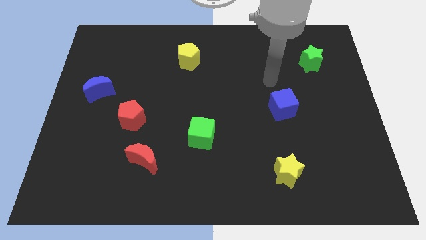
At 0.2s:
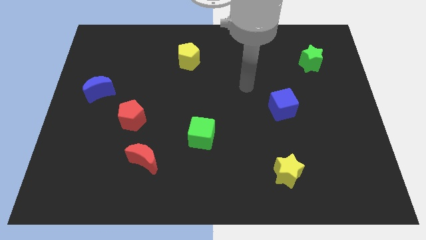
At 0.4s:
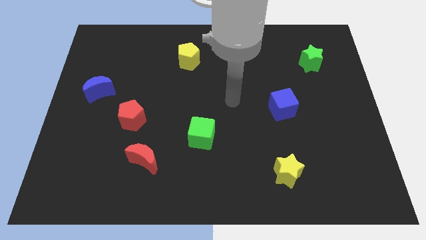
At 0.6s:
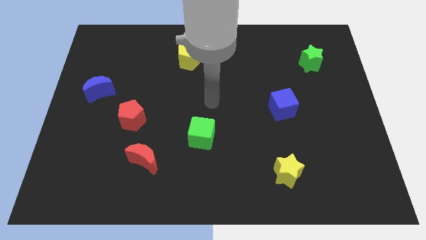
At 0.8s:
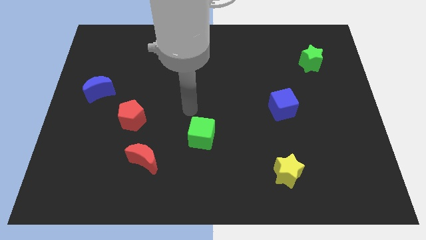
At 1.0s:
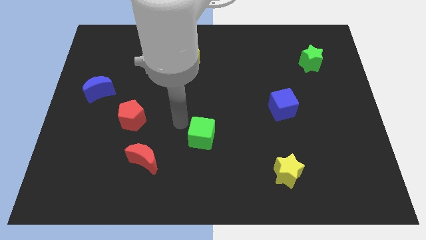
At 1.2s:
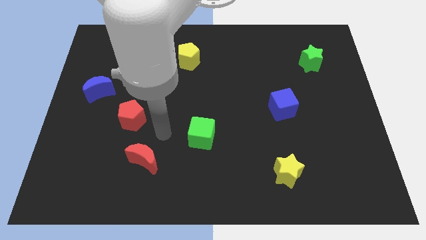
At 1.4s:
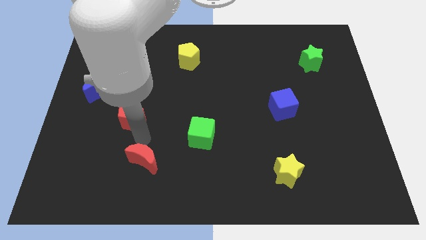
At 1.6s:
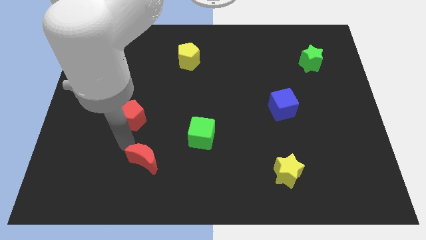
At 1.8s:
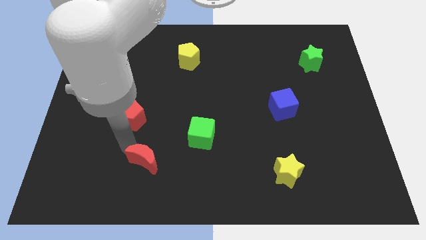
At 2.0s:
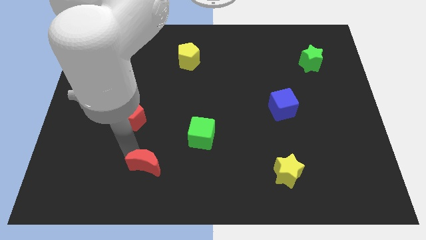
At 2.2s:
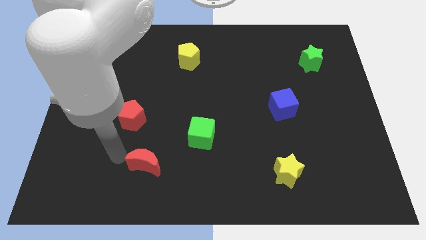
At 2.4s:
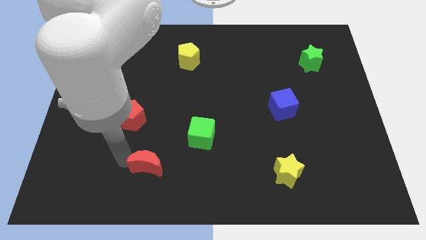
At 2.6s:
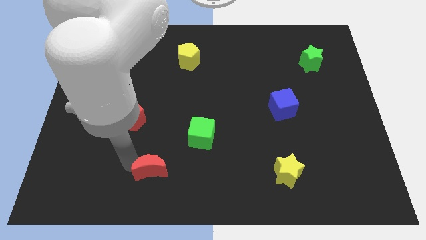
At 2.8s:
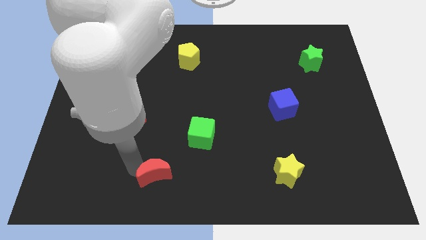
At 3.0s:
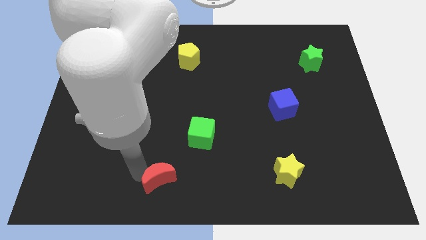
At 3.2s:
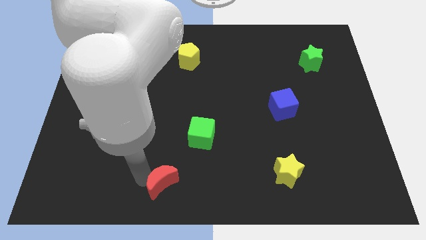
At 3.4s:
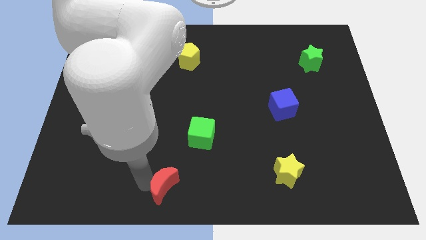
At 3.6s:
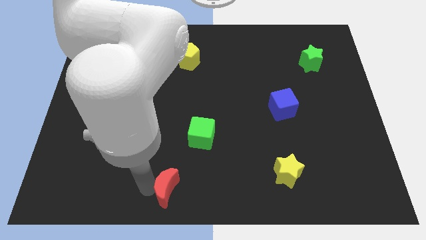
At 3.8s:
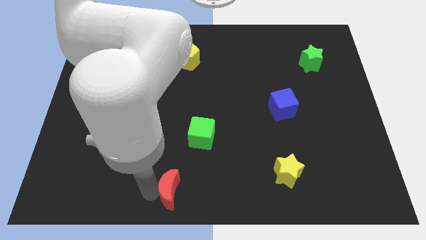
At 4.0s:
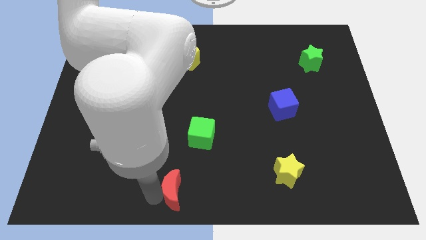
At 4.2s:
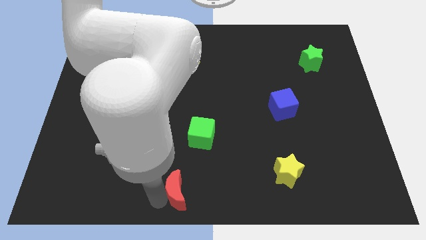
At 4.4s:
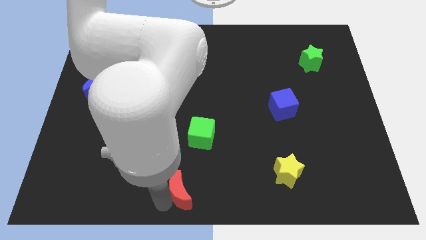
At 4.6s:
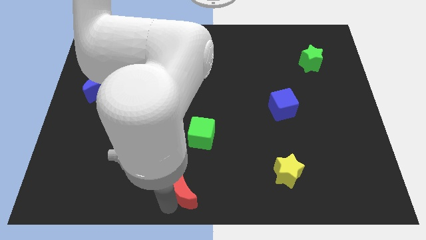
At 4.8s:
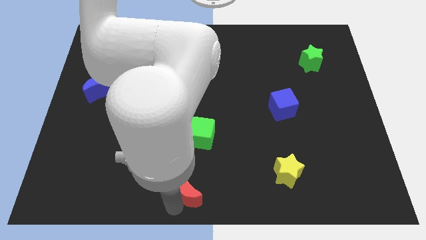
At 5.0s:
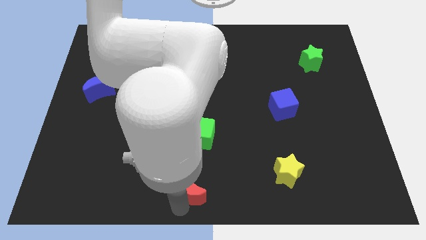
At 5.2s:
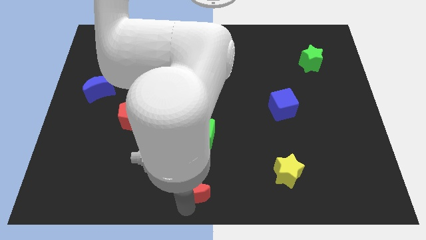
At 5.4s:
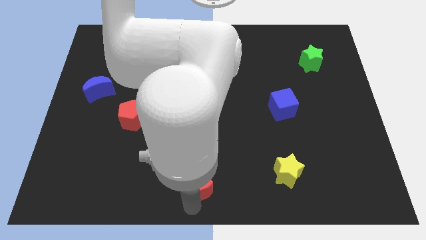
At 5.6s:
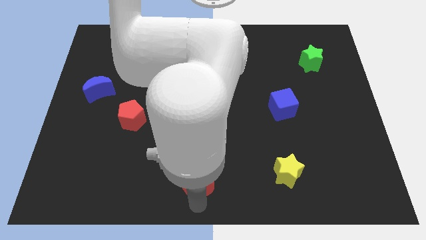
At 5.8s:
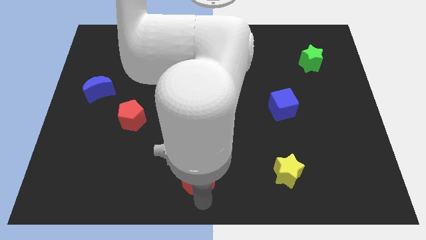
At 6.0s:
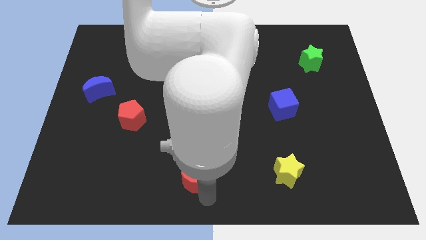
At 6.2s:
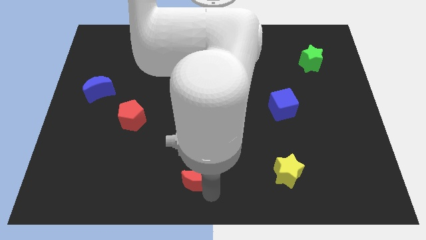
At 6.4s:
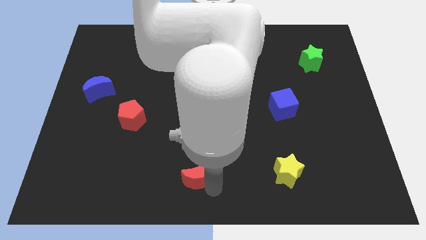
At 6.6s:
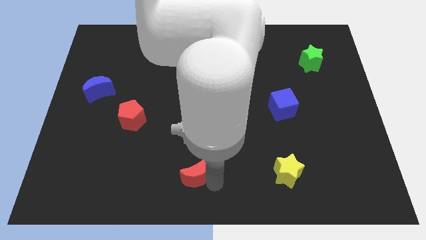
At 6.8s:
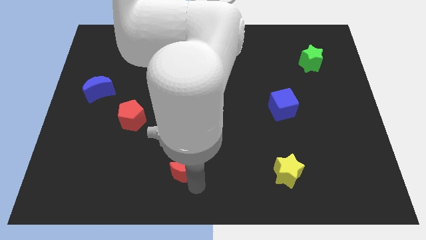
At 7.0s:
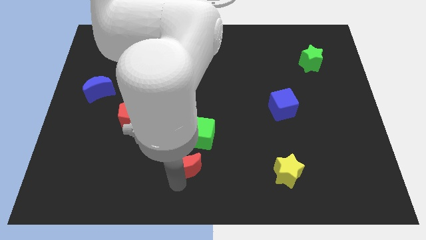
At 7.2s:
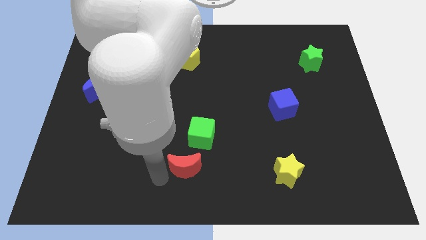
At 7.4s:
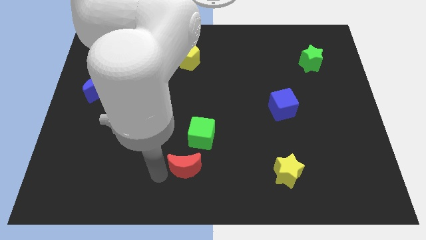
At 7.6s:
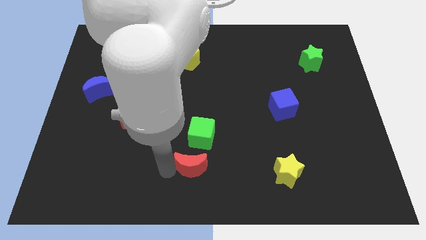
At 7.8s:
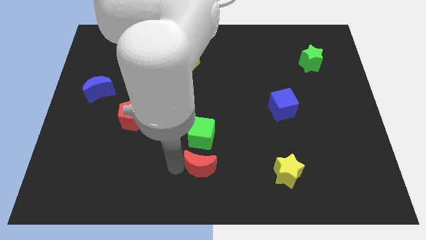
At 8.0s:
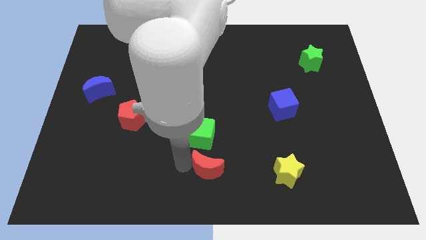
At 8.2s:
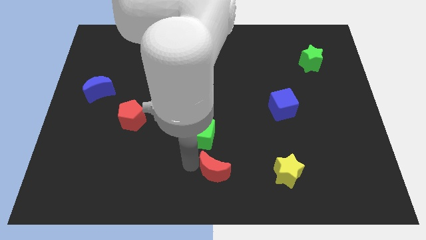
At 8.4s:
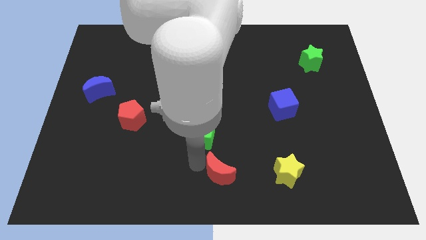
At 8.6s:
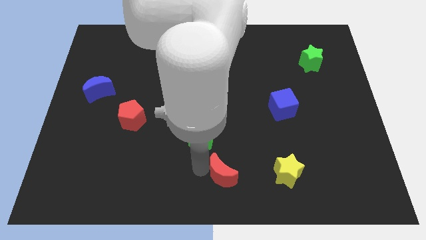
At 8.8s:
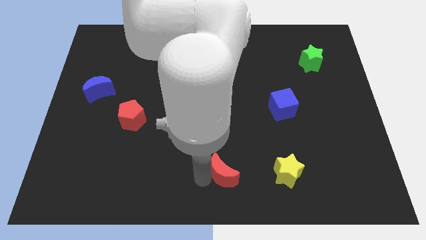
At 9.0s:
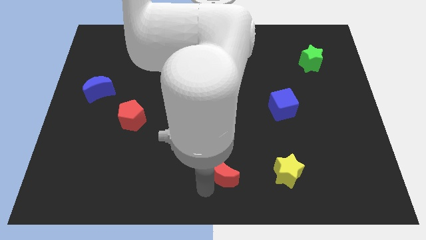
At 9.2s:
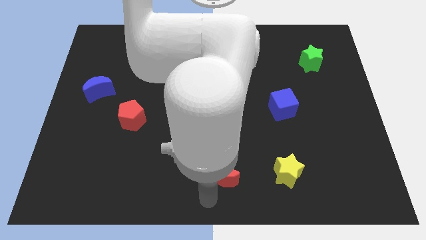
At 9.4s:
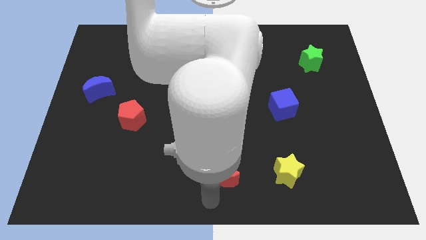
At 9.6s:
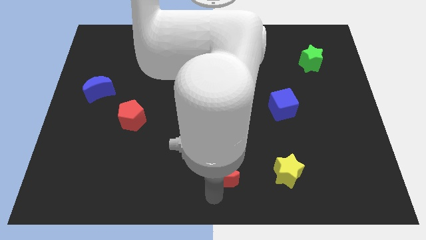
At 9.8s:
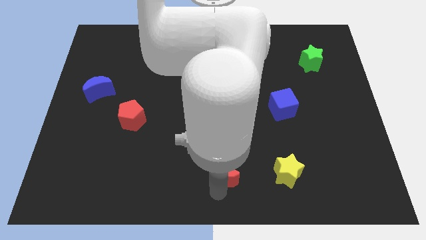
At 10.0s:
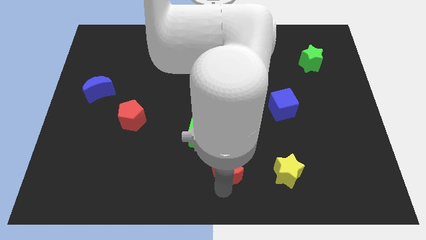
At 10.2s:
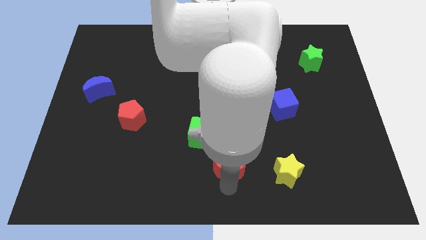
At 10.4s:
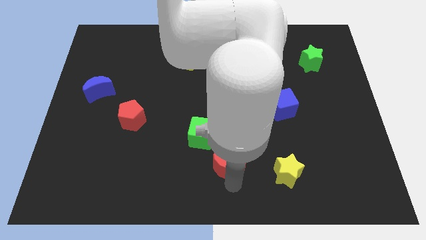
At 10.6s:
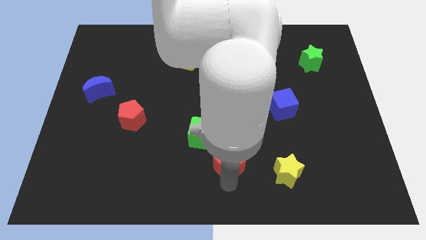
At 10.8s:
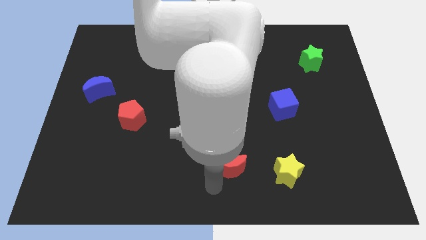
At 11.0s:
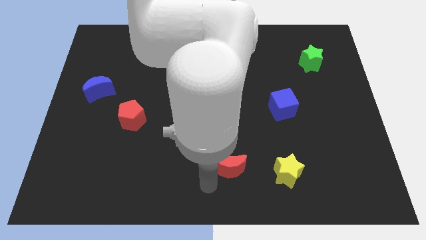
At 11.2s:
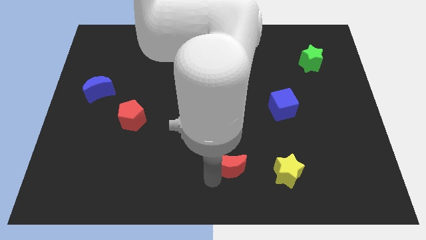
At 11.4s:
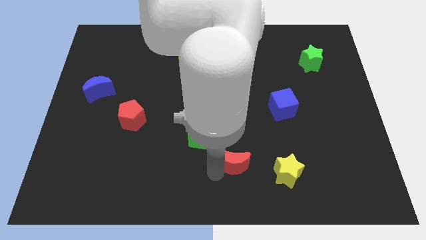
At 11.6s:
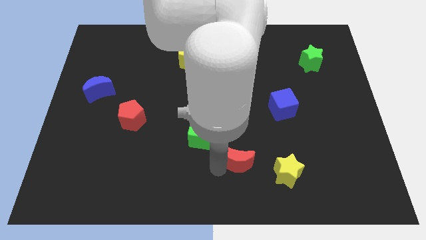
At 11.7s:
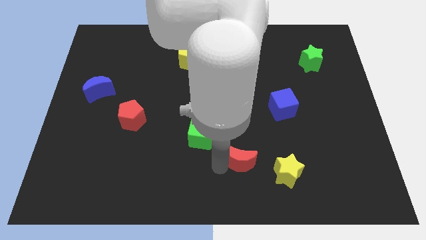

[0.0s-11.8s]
push the red moon to the right

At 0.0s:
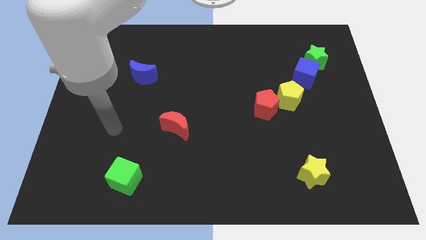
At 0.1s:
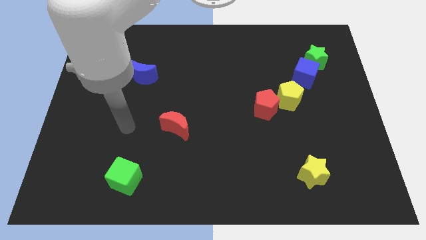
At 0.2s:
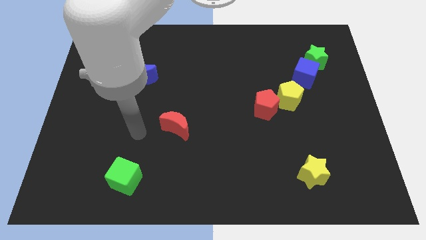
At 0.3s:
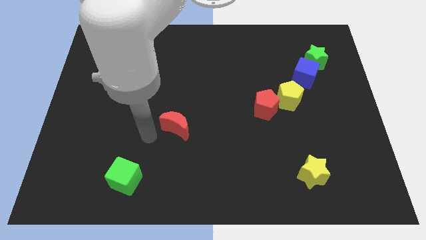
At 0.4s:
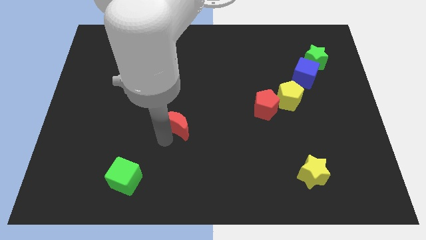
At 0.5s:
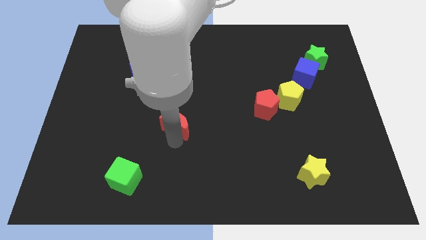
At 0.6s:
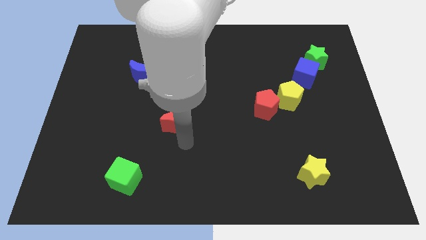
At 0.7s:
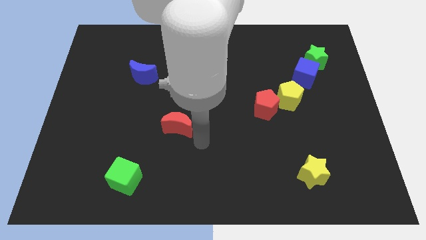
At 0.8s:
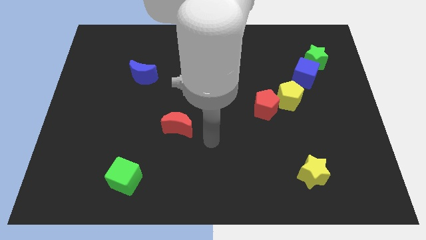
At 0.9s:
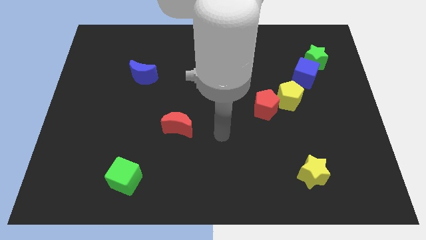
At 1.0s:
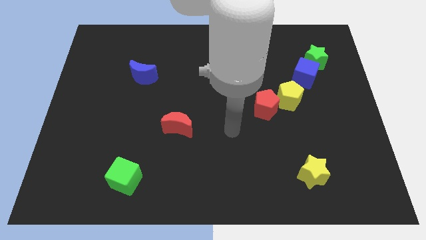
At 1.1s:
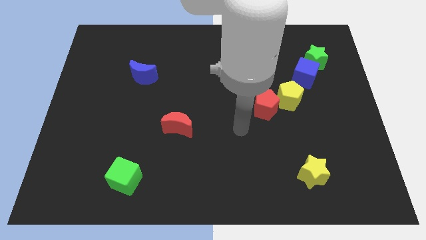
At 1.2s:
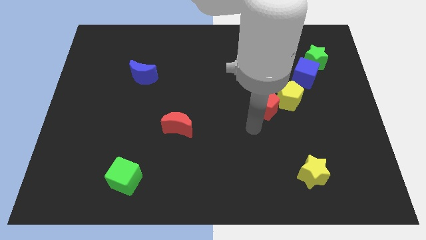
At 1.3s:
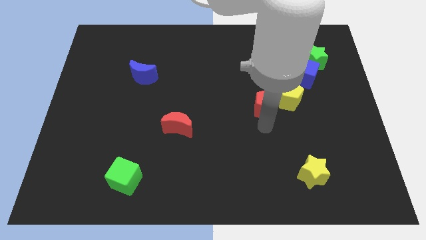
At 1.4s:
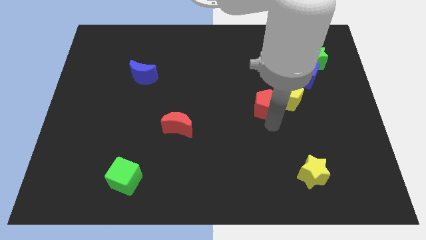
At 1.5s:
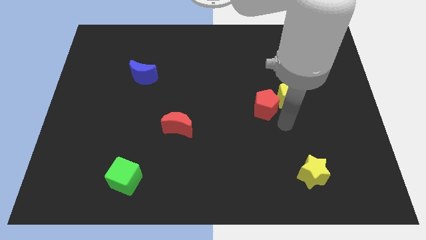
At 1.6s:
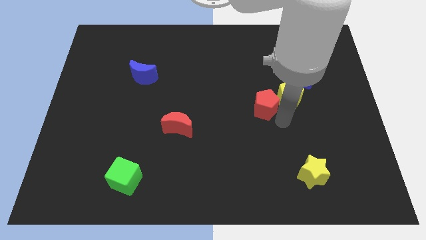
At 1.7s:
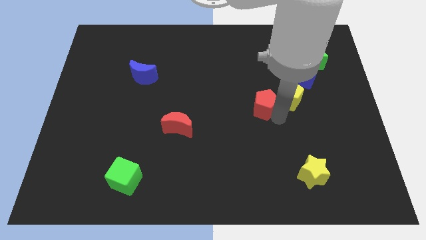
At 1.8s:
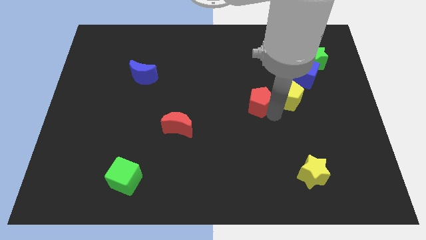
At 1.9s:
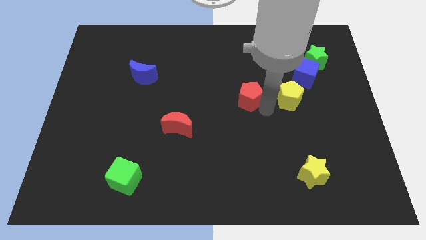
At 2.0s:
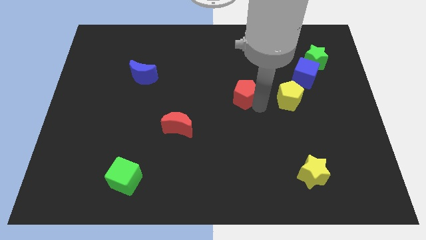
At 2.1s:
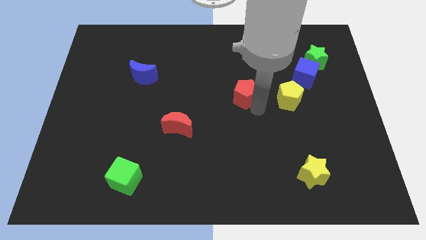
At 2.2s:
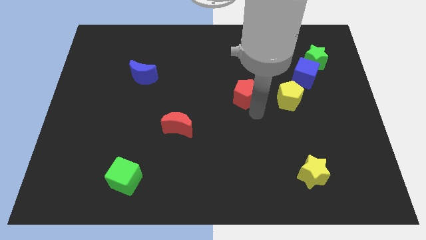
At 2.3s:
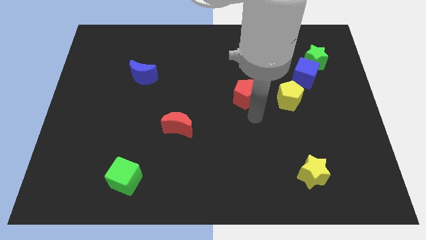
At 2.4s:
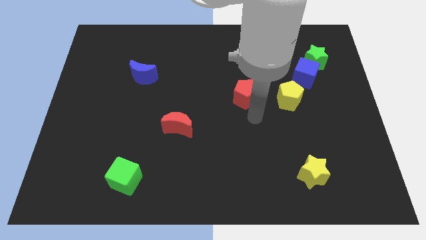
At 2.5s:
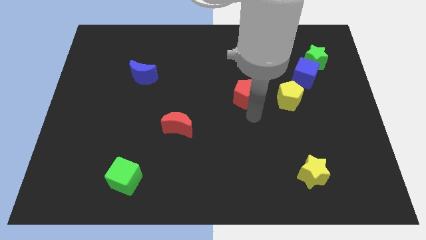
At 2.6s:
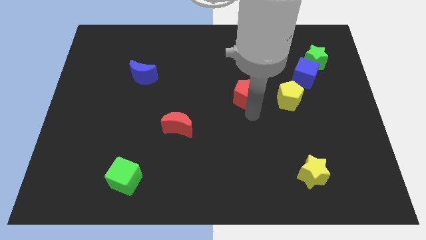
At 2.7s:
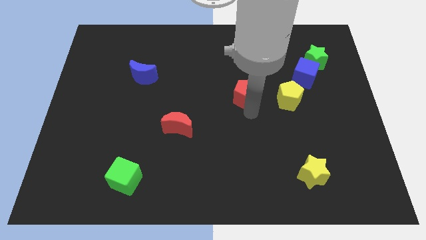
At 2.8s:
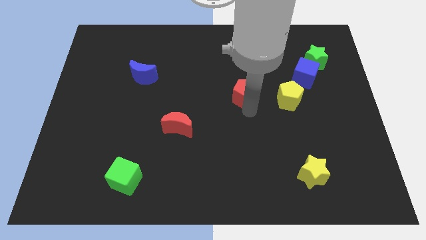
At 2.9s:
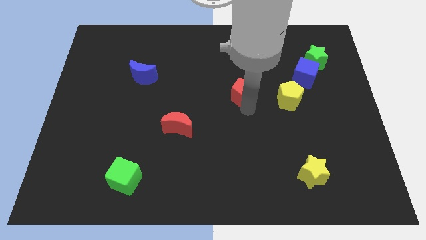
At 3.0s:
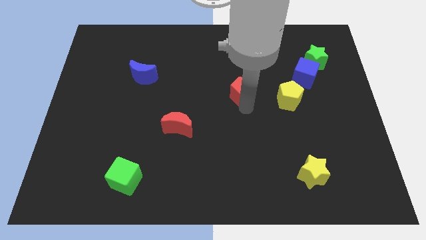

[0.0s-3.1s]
slightly slide the red pentagon upwards and then left
